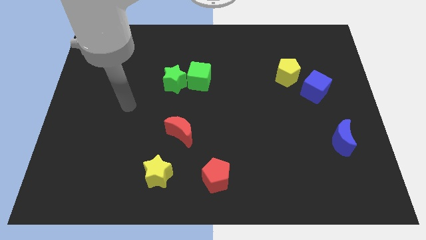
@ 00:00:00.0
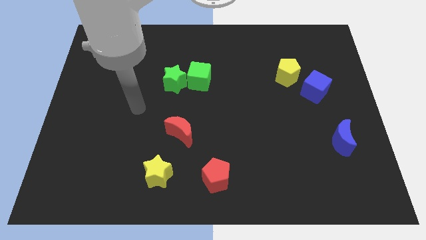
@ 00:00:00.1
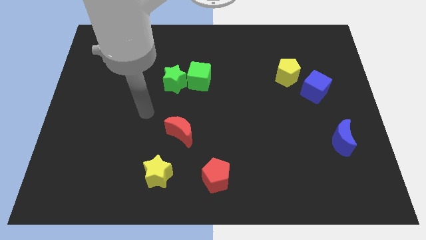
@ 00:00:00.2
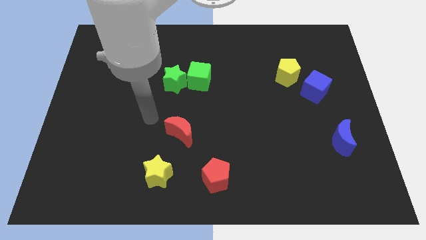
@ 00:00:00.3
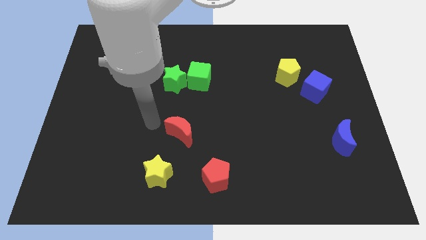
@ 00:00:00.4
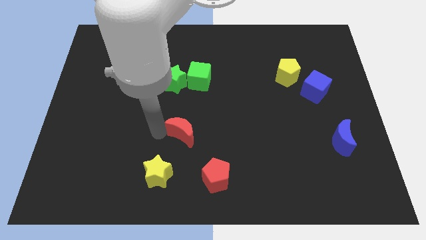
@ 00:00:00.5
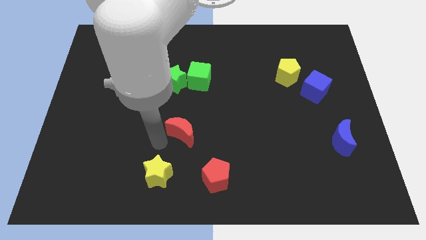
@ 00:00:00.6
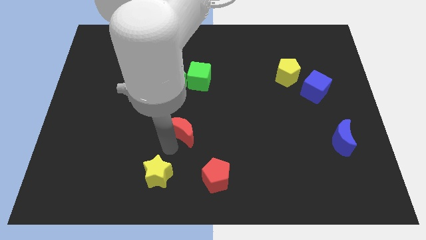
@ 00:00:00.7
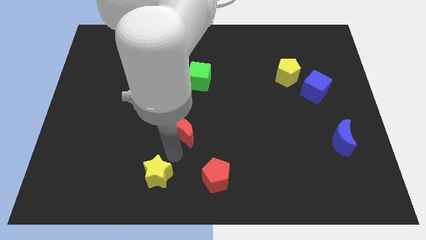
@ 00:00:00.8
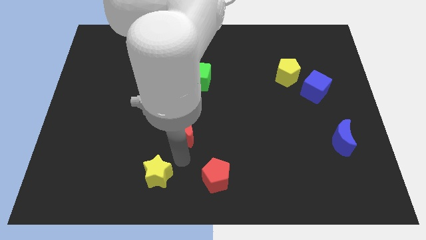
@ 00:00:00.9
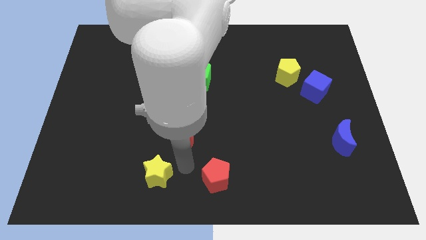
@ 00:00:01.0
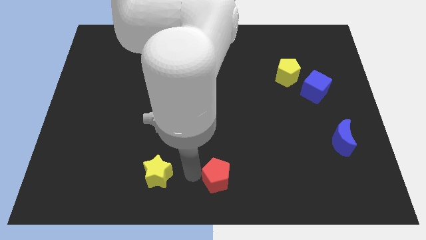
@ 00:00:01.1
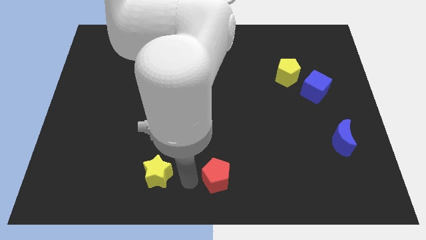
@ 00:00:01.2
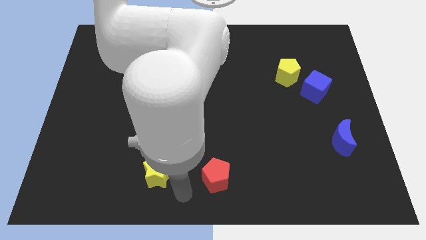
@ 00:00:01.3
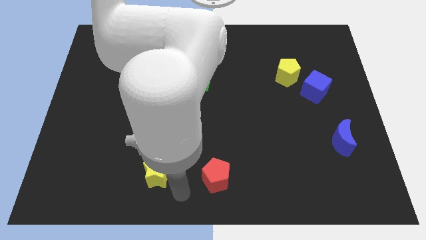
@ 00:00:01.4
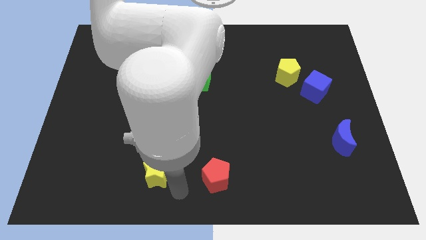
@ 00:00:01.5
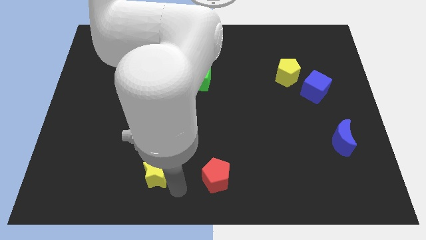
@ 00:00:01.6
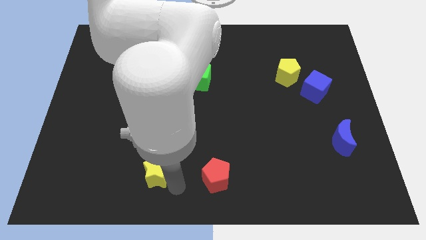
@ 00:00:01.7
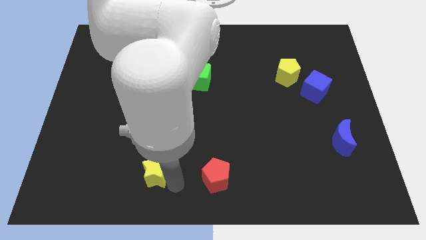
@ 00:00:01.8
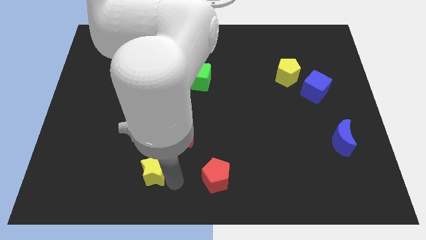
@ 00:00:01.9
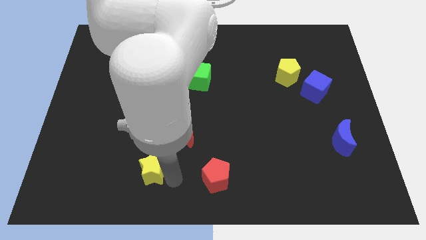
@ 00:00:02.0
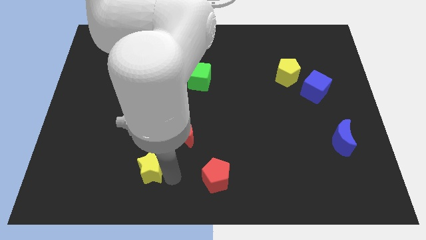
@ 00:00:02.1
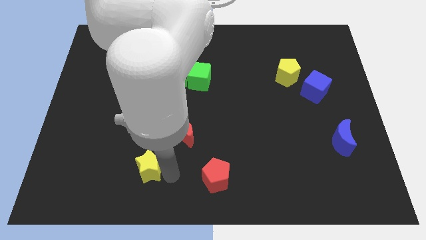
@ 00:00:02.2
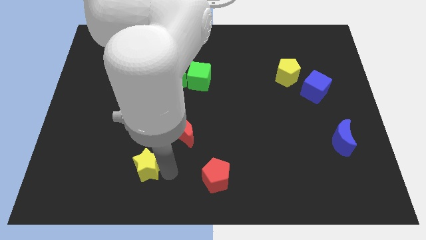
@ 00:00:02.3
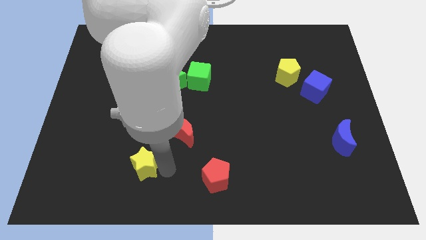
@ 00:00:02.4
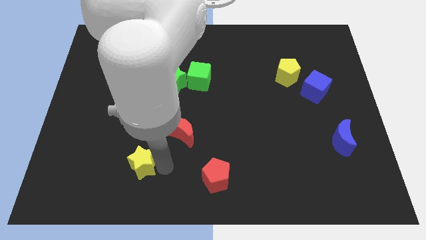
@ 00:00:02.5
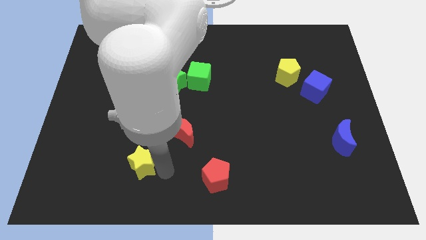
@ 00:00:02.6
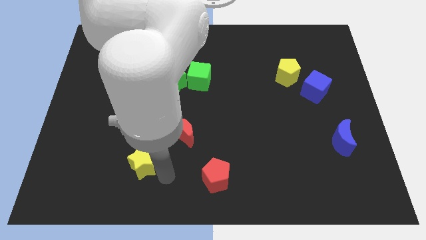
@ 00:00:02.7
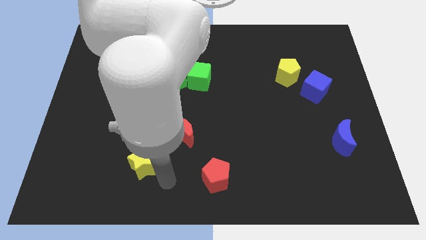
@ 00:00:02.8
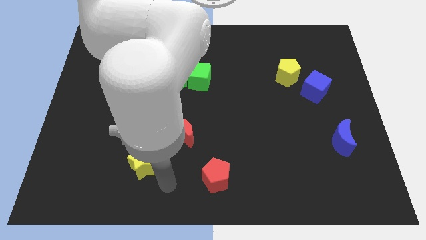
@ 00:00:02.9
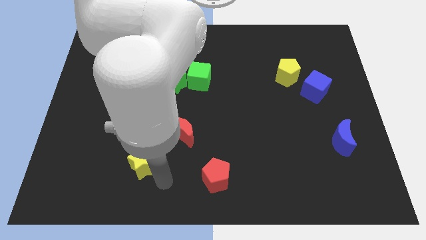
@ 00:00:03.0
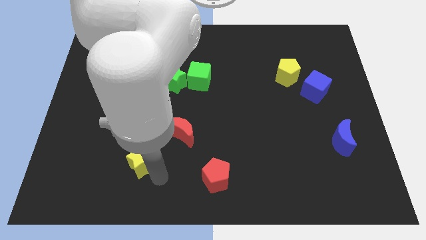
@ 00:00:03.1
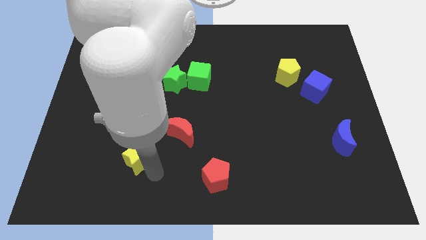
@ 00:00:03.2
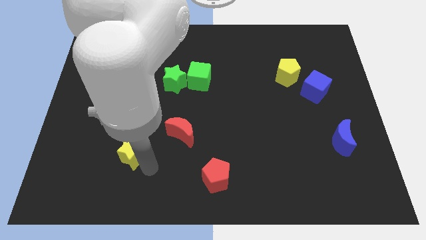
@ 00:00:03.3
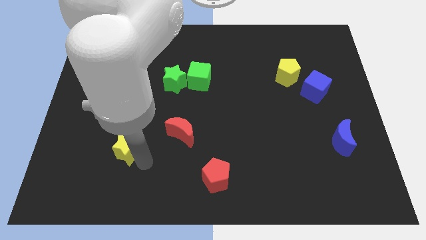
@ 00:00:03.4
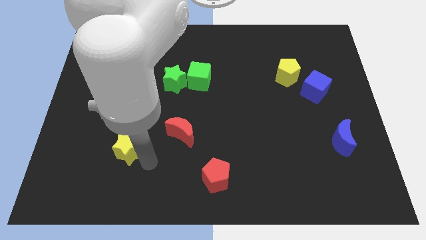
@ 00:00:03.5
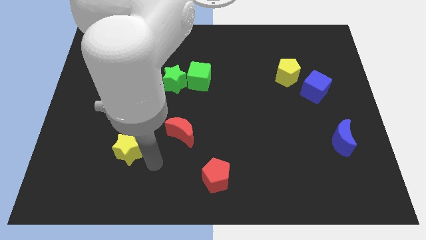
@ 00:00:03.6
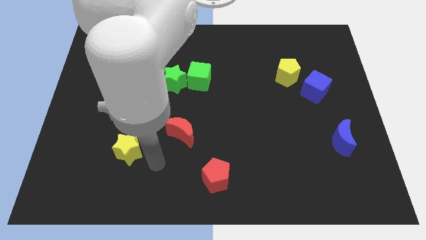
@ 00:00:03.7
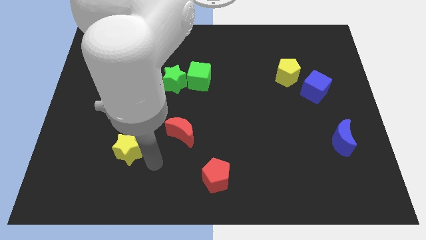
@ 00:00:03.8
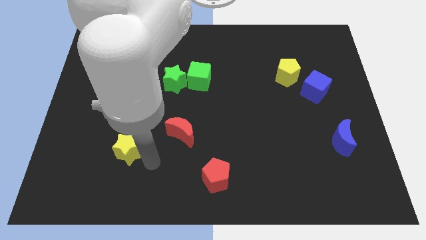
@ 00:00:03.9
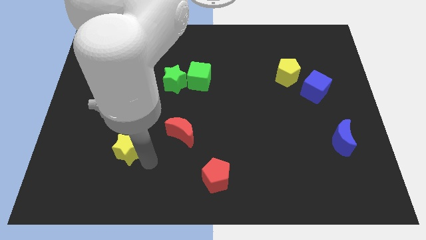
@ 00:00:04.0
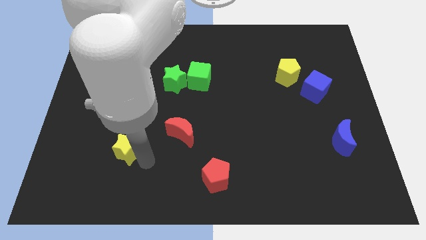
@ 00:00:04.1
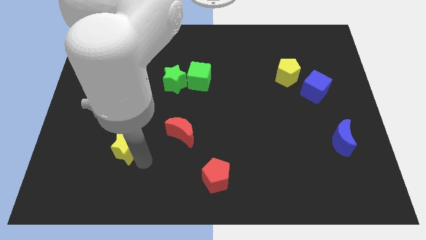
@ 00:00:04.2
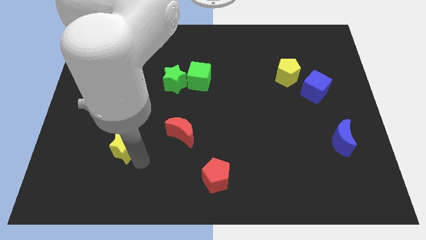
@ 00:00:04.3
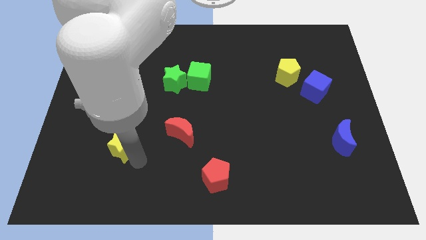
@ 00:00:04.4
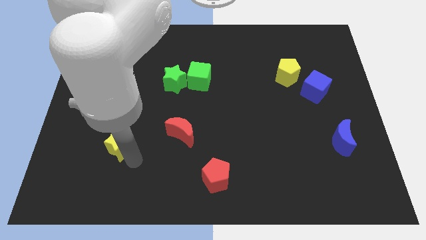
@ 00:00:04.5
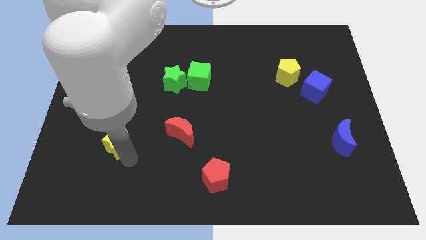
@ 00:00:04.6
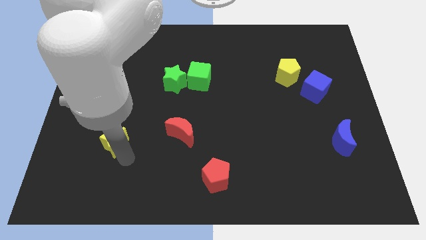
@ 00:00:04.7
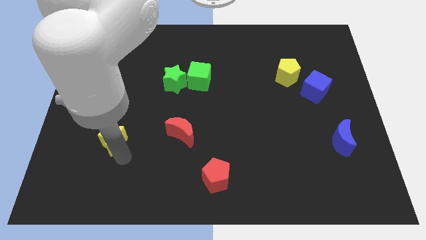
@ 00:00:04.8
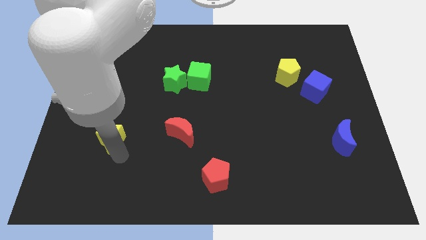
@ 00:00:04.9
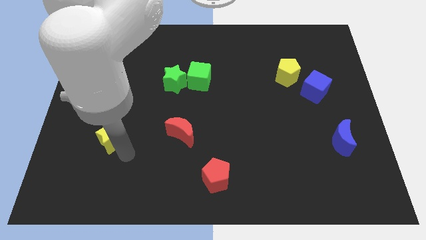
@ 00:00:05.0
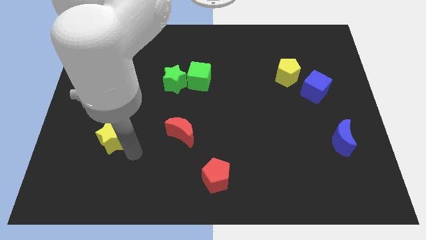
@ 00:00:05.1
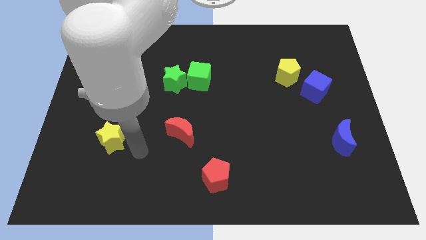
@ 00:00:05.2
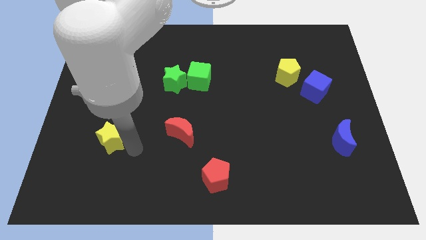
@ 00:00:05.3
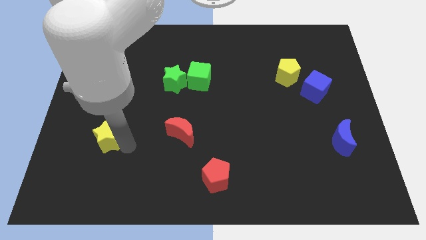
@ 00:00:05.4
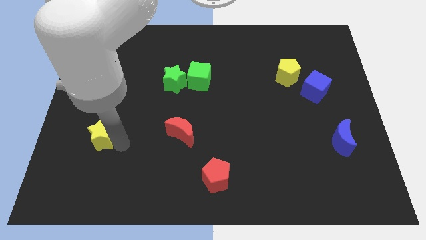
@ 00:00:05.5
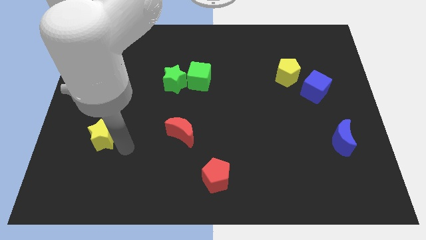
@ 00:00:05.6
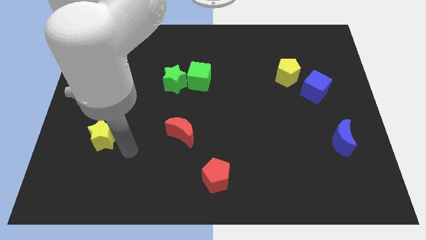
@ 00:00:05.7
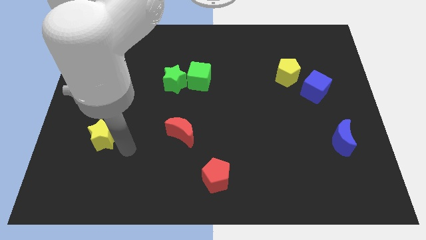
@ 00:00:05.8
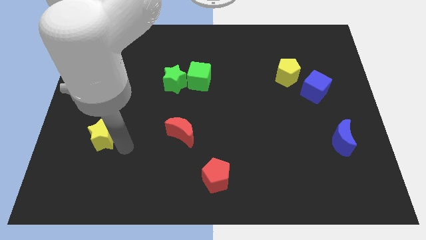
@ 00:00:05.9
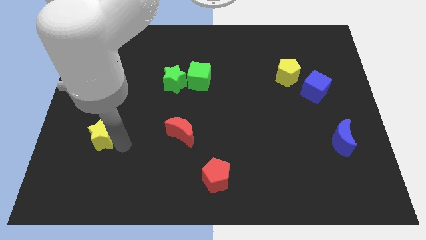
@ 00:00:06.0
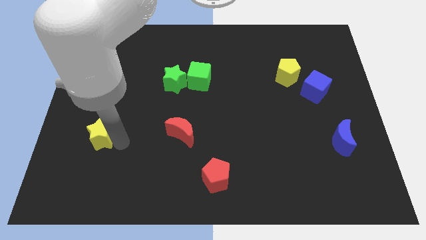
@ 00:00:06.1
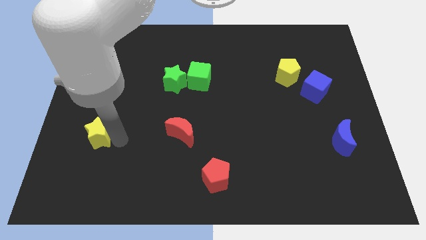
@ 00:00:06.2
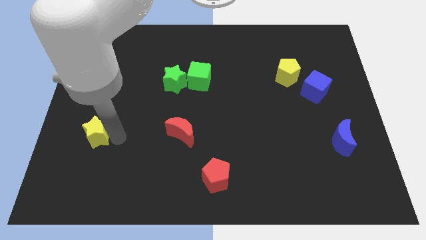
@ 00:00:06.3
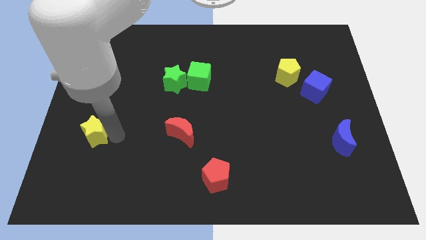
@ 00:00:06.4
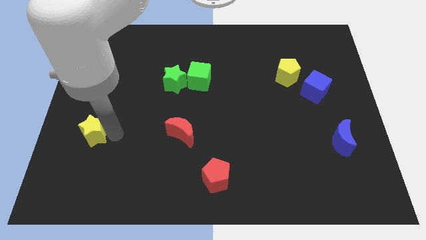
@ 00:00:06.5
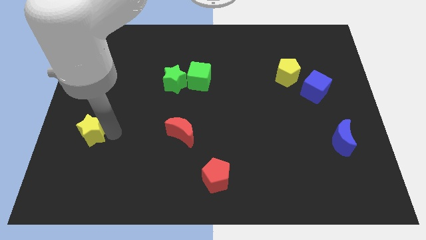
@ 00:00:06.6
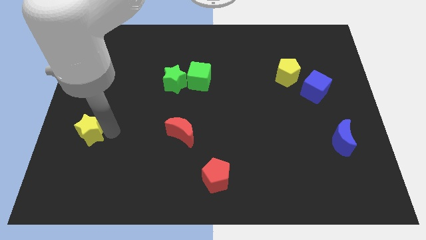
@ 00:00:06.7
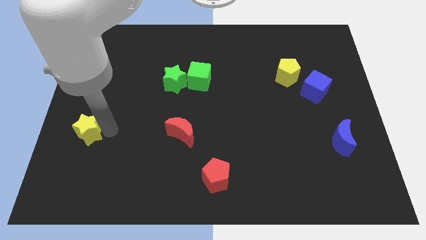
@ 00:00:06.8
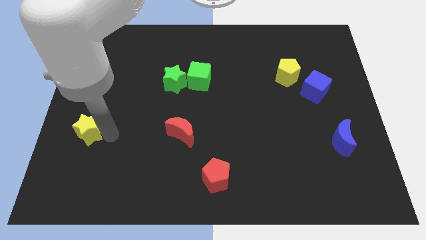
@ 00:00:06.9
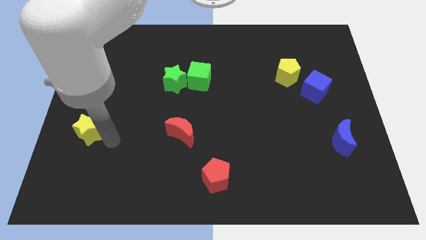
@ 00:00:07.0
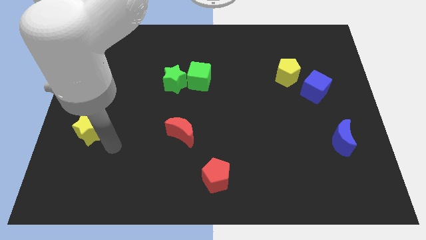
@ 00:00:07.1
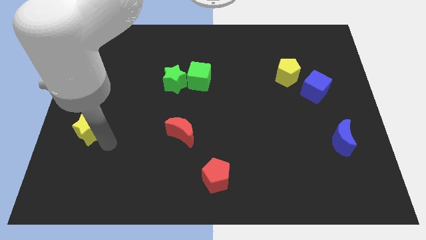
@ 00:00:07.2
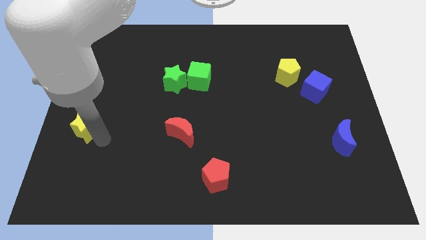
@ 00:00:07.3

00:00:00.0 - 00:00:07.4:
put the yellow star to the left side of the board
